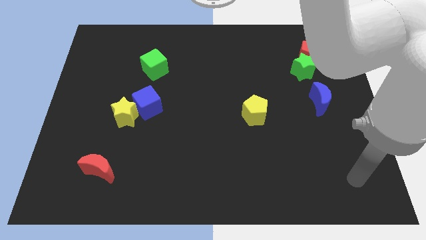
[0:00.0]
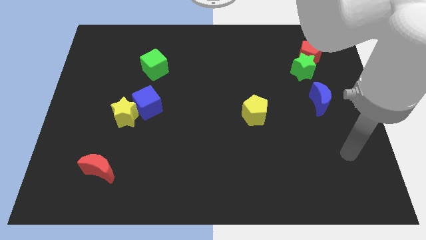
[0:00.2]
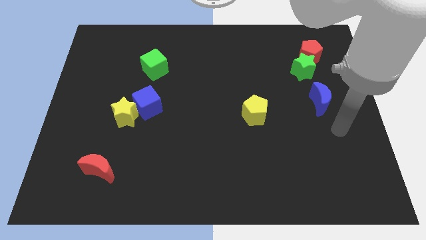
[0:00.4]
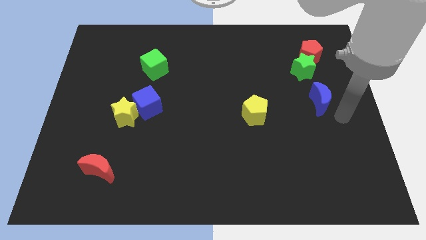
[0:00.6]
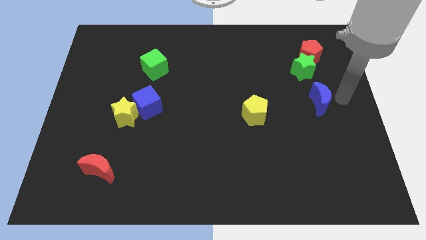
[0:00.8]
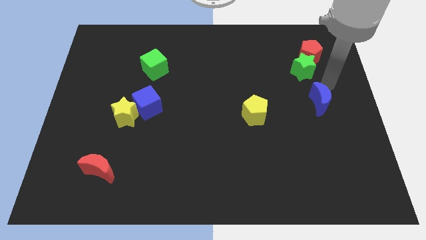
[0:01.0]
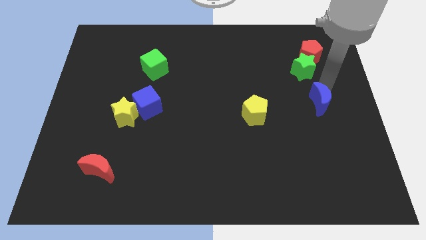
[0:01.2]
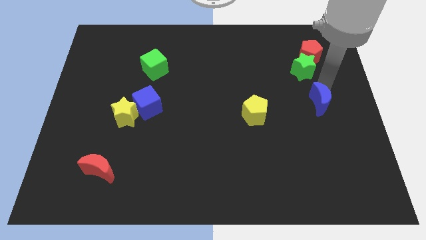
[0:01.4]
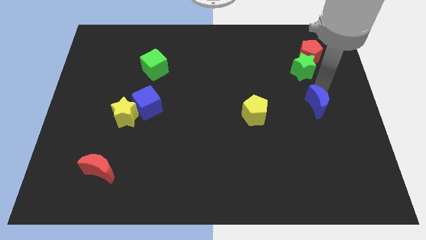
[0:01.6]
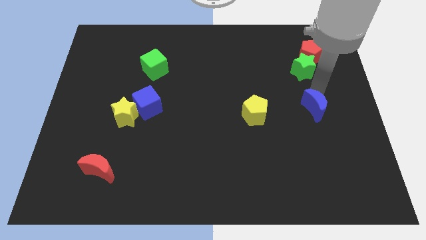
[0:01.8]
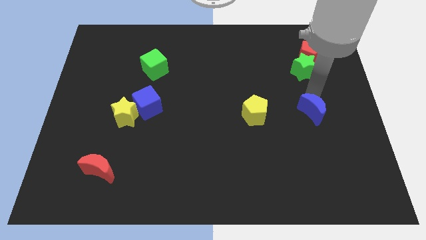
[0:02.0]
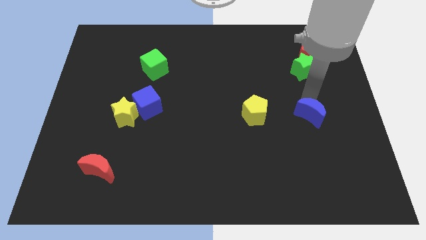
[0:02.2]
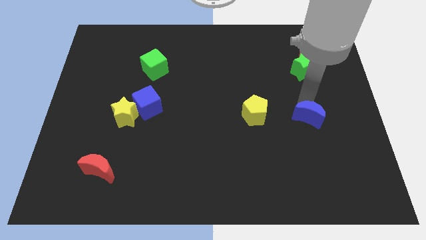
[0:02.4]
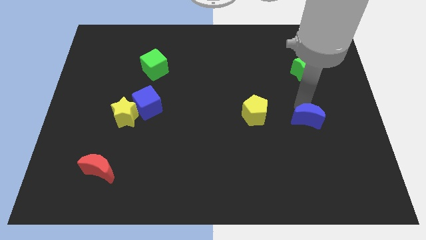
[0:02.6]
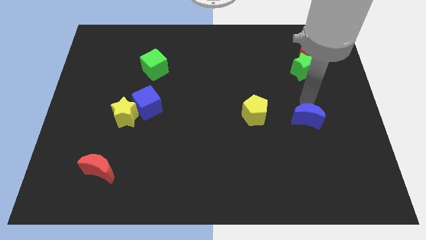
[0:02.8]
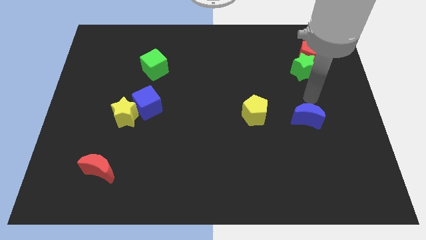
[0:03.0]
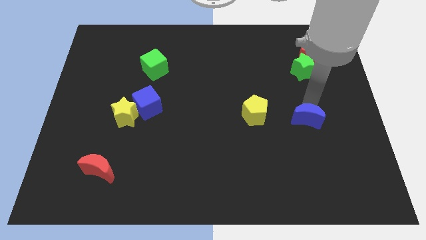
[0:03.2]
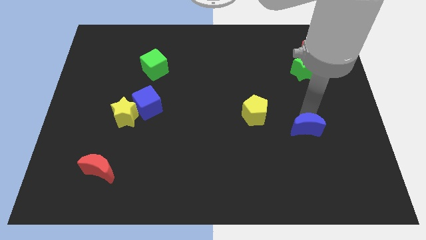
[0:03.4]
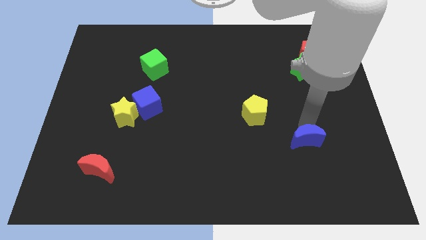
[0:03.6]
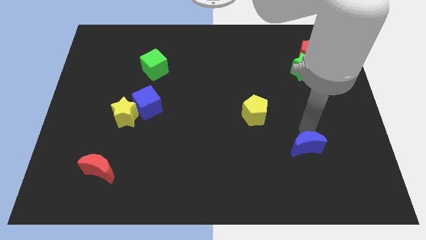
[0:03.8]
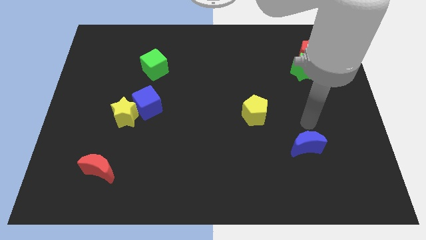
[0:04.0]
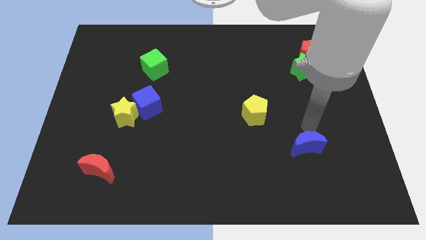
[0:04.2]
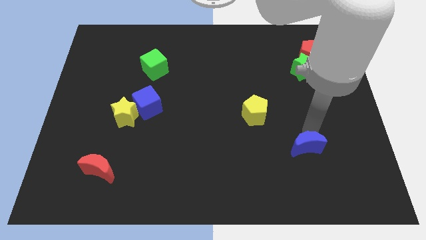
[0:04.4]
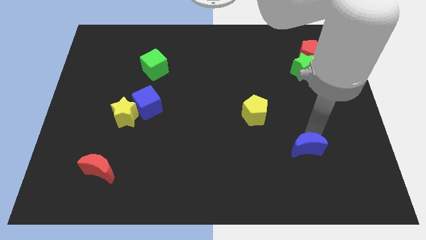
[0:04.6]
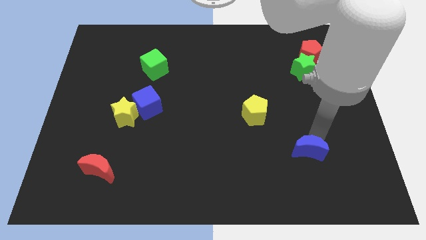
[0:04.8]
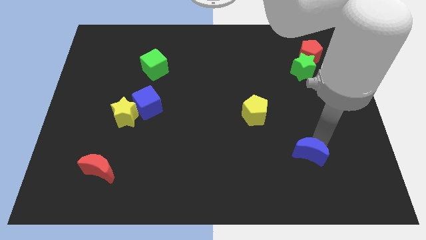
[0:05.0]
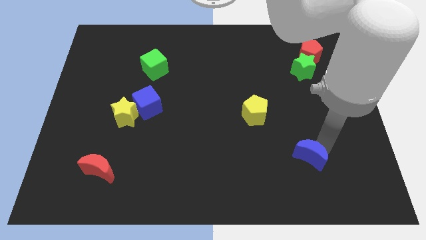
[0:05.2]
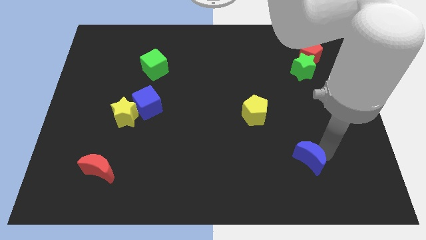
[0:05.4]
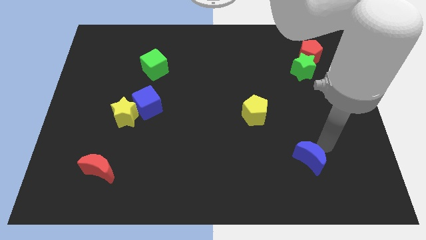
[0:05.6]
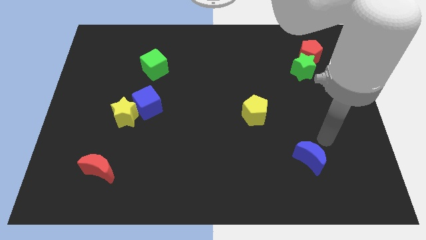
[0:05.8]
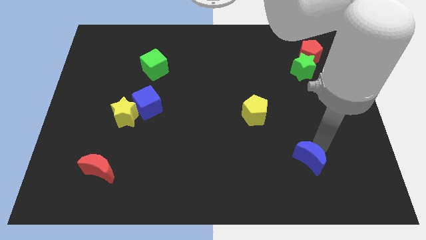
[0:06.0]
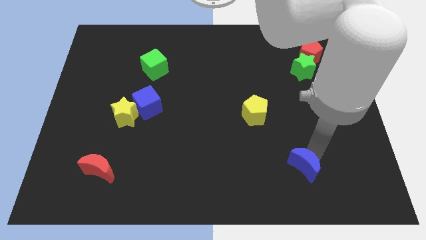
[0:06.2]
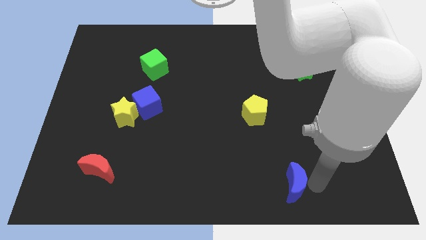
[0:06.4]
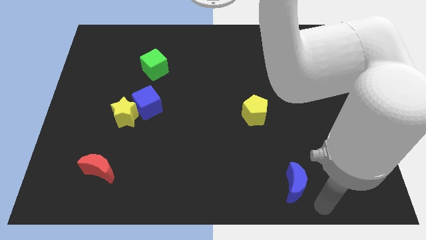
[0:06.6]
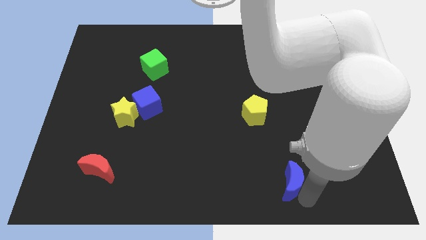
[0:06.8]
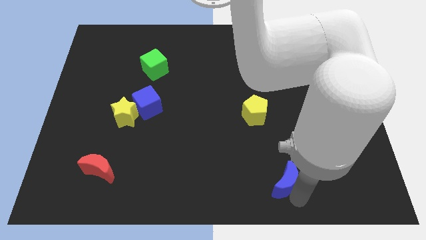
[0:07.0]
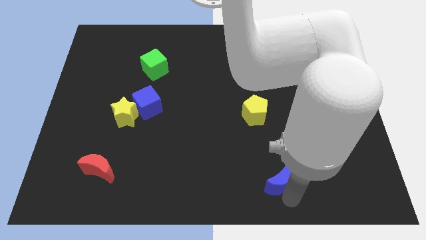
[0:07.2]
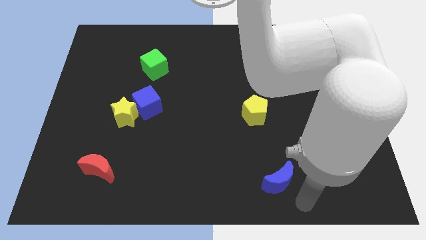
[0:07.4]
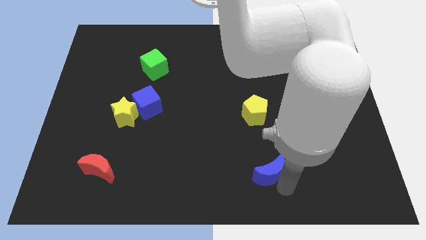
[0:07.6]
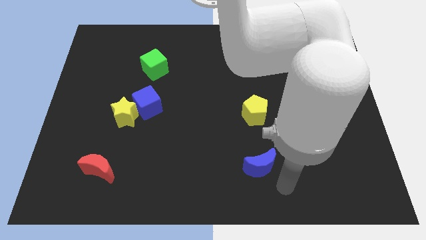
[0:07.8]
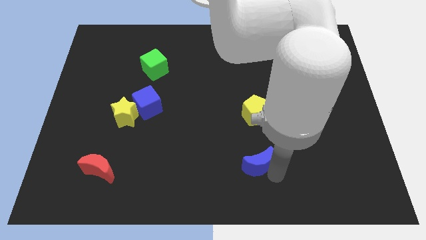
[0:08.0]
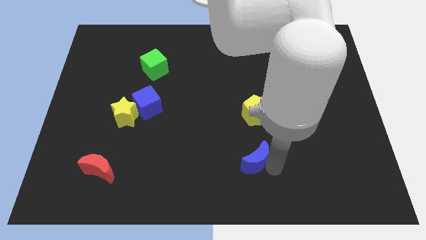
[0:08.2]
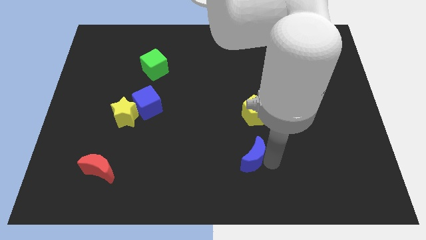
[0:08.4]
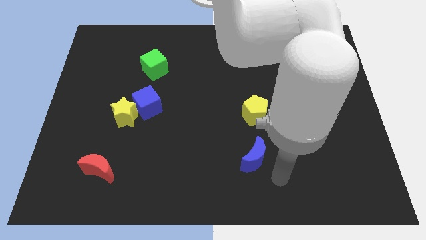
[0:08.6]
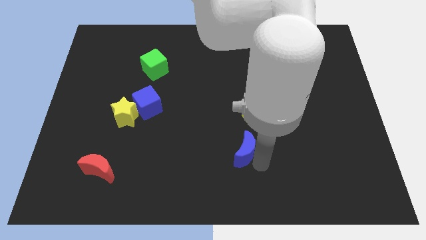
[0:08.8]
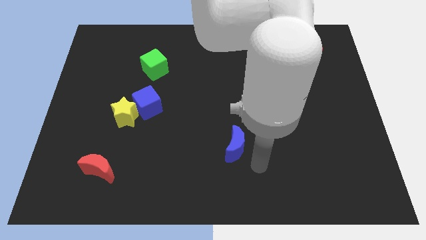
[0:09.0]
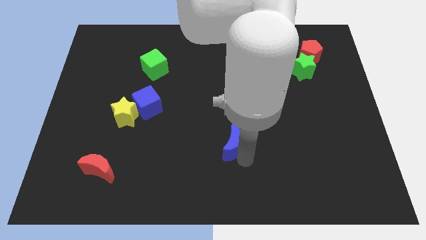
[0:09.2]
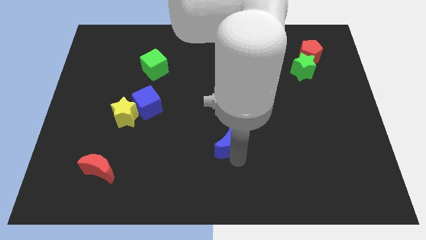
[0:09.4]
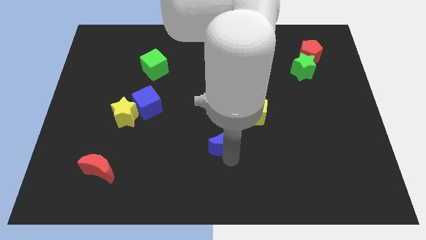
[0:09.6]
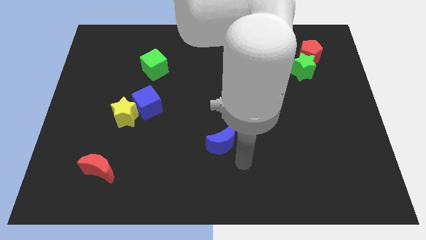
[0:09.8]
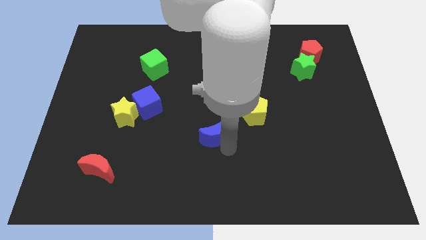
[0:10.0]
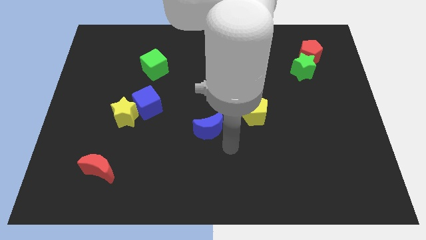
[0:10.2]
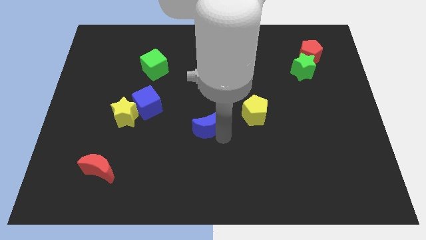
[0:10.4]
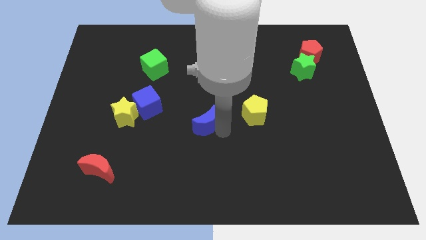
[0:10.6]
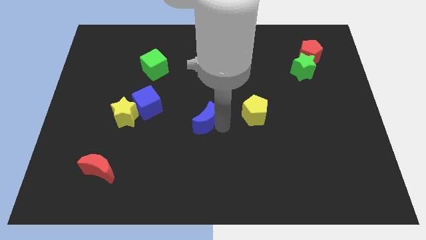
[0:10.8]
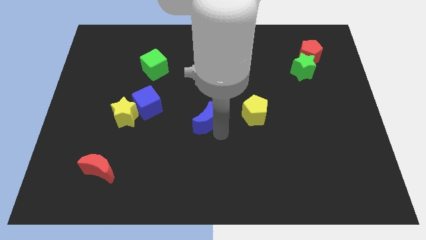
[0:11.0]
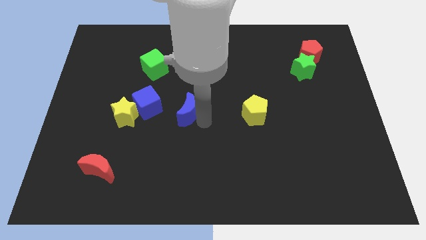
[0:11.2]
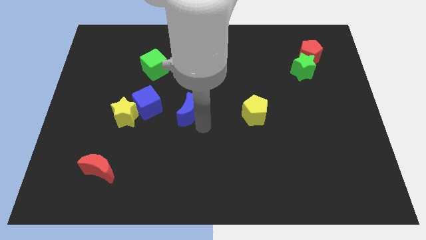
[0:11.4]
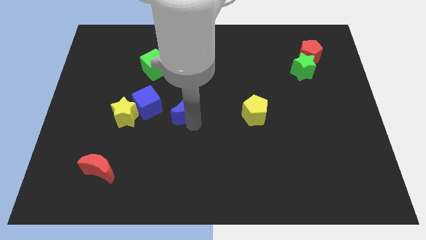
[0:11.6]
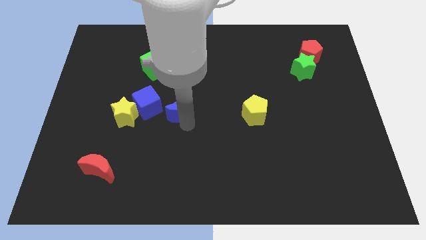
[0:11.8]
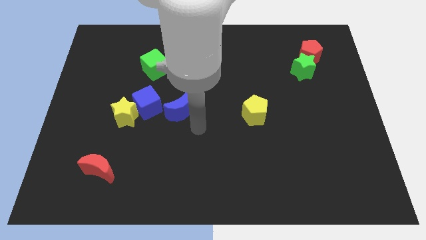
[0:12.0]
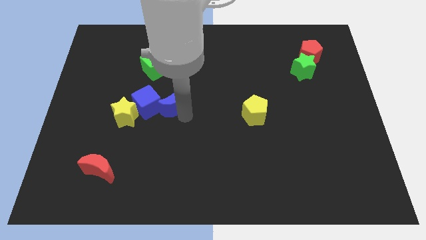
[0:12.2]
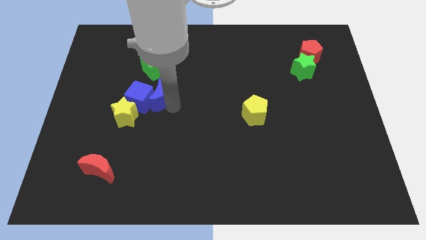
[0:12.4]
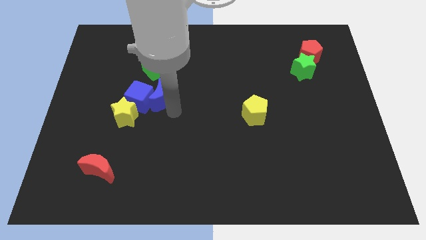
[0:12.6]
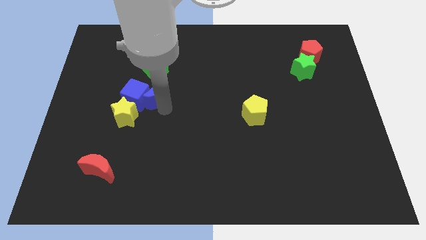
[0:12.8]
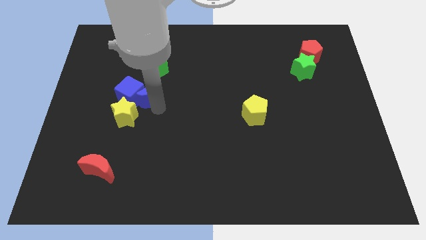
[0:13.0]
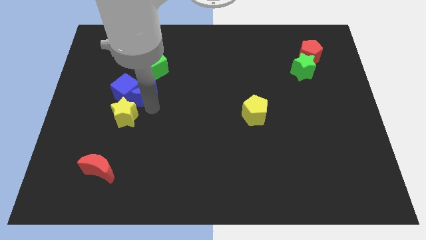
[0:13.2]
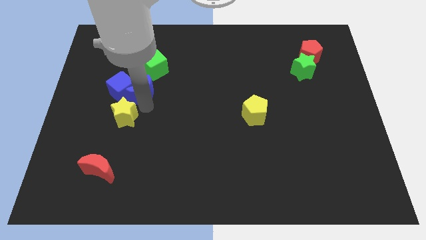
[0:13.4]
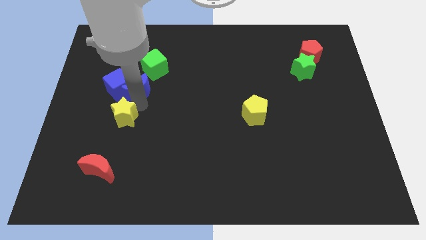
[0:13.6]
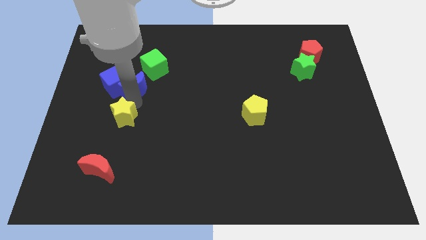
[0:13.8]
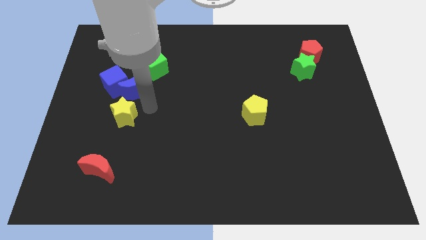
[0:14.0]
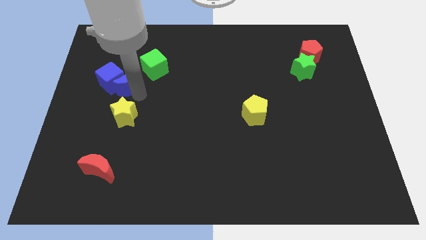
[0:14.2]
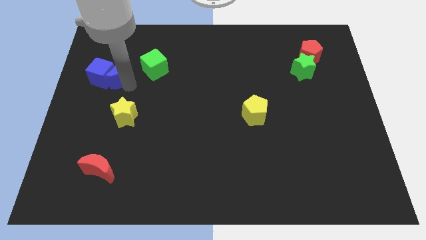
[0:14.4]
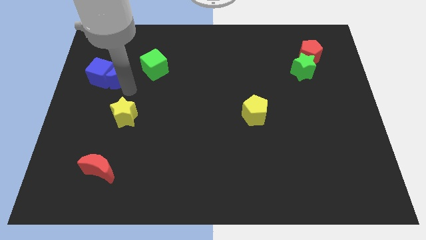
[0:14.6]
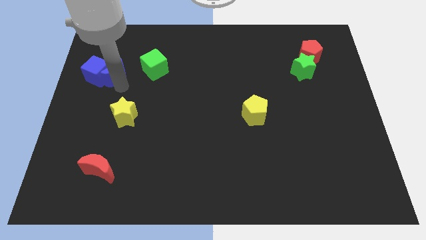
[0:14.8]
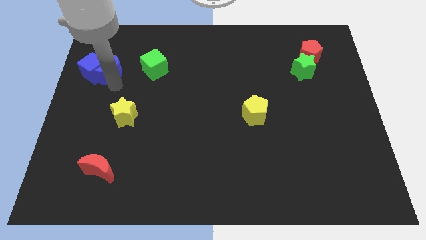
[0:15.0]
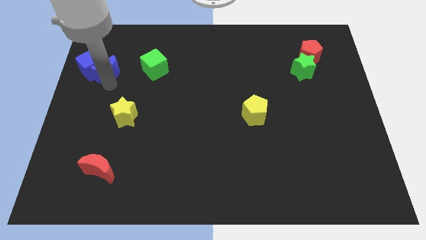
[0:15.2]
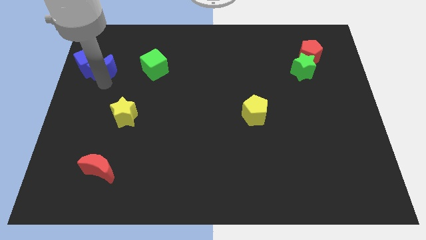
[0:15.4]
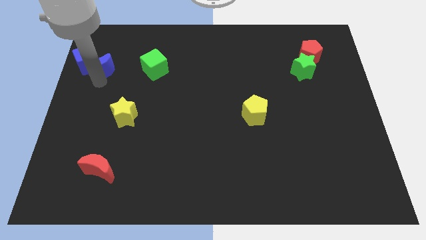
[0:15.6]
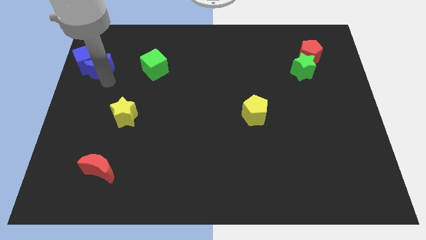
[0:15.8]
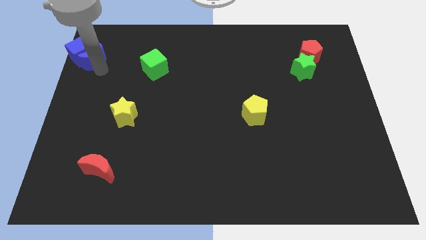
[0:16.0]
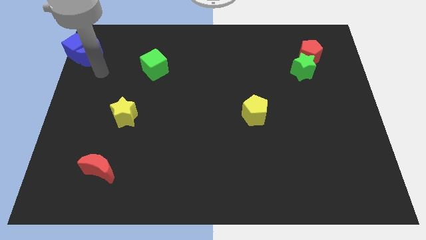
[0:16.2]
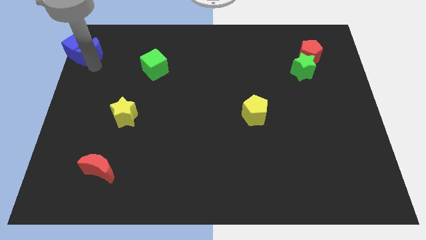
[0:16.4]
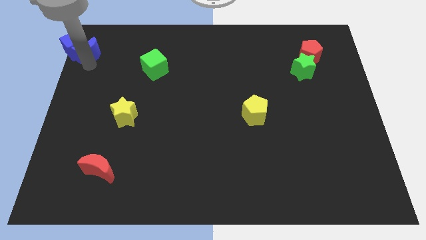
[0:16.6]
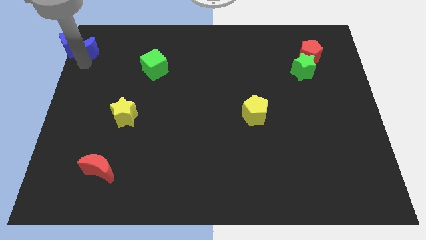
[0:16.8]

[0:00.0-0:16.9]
put the blue moon to the upper left corner
